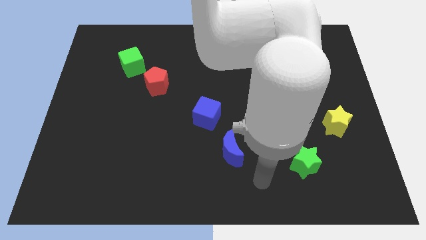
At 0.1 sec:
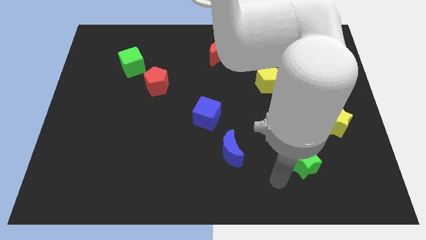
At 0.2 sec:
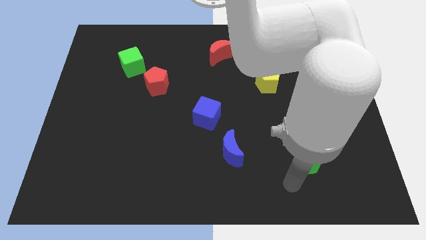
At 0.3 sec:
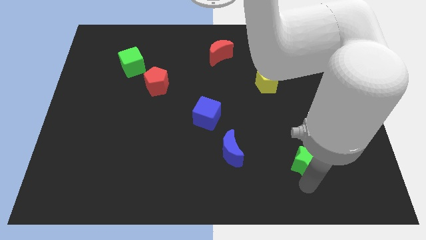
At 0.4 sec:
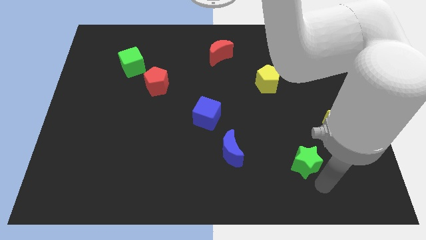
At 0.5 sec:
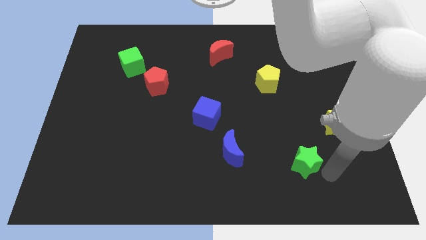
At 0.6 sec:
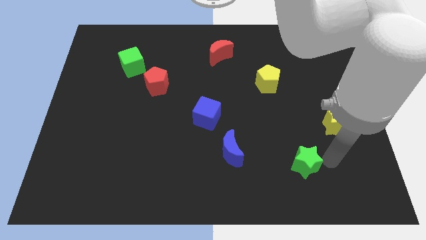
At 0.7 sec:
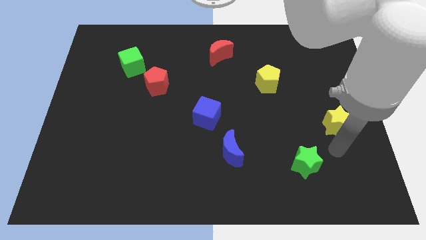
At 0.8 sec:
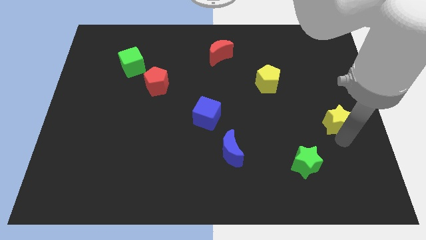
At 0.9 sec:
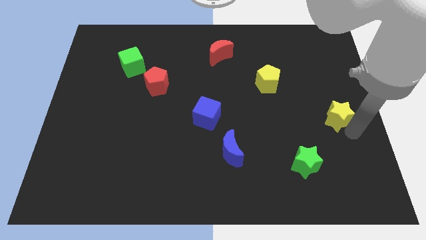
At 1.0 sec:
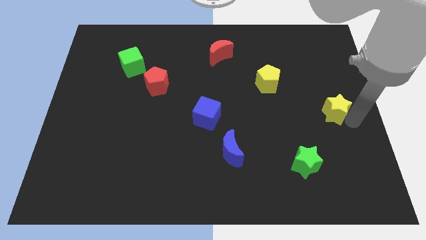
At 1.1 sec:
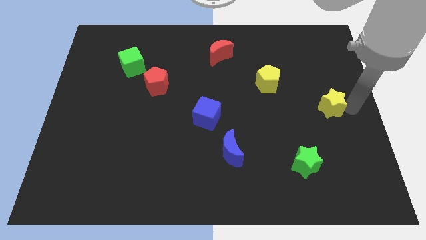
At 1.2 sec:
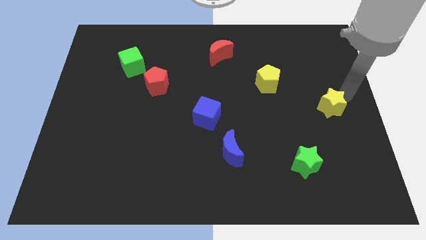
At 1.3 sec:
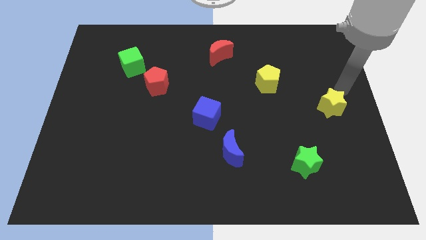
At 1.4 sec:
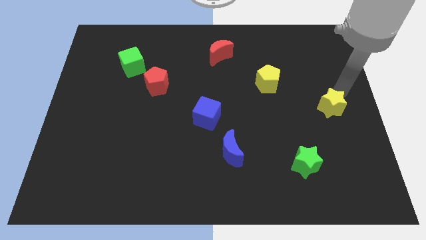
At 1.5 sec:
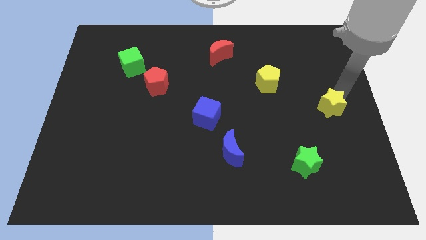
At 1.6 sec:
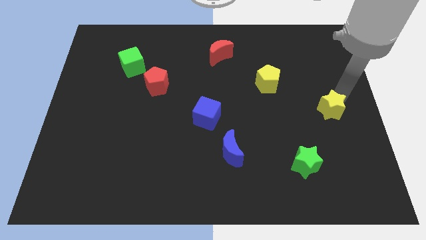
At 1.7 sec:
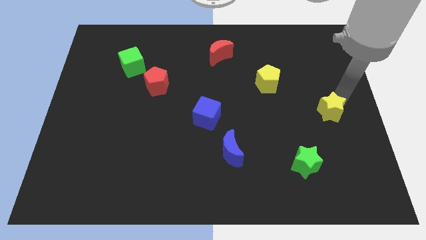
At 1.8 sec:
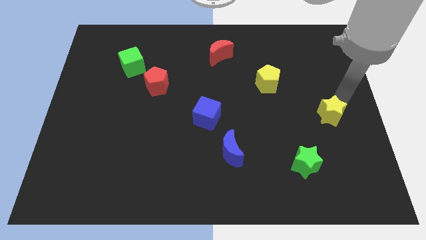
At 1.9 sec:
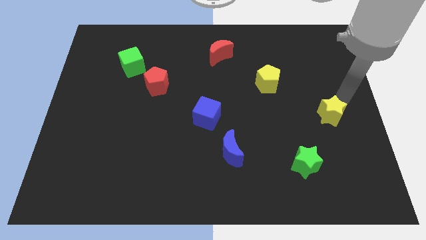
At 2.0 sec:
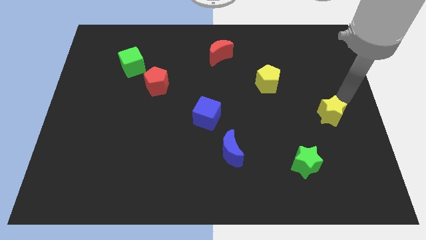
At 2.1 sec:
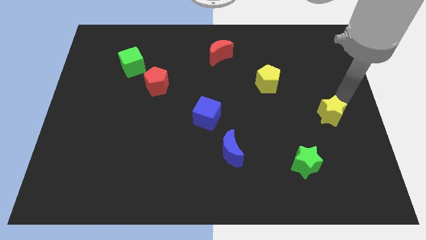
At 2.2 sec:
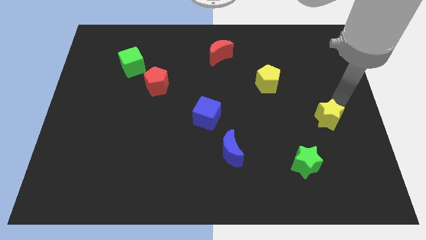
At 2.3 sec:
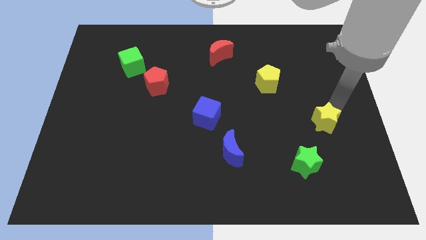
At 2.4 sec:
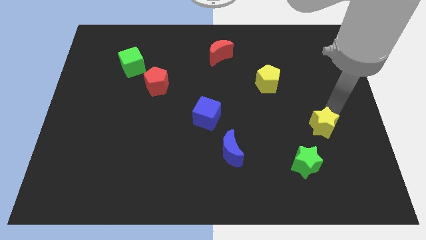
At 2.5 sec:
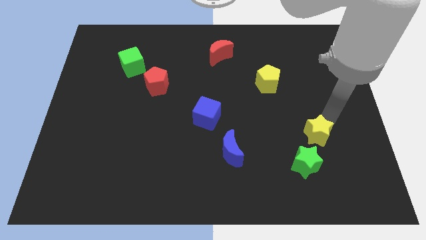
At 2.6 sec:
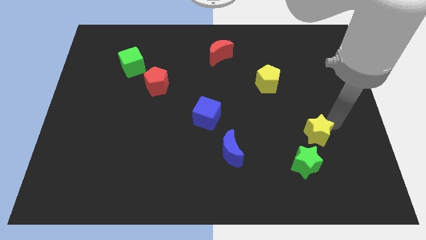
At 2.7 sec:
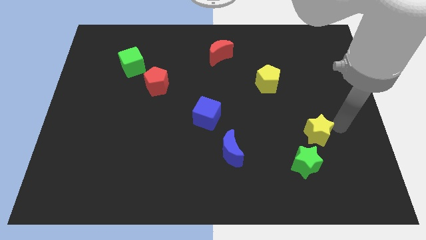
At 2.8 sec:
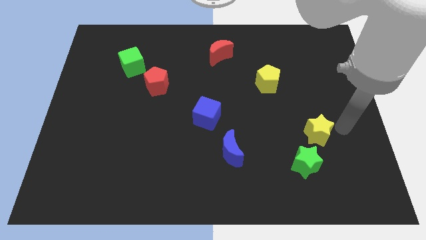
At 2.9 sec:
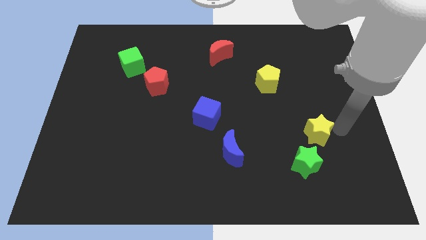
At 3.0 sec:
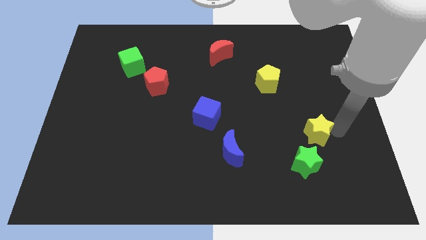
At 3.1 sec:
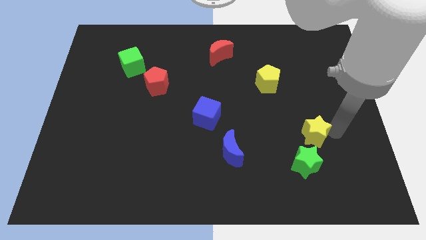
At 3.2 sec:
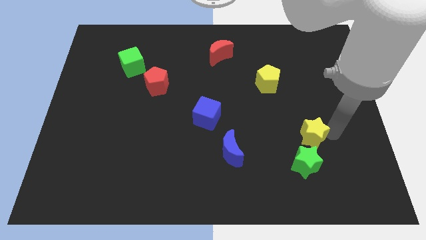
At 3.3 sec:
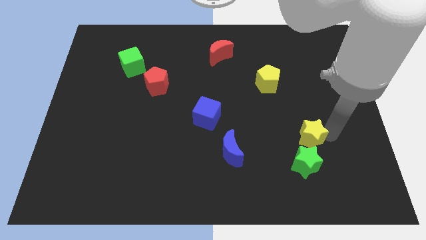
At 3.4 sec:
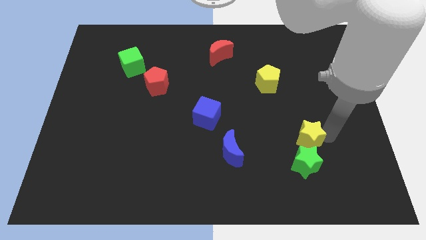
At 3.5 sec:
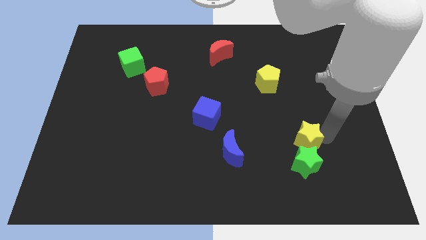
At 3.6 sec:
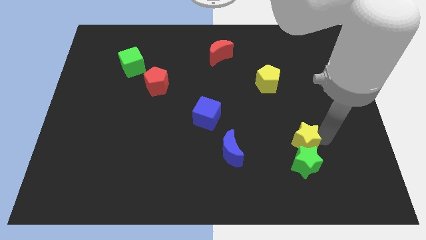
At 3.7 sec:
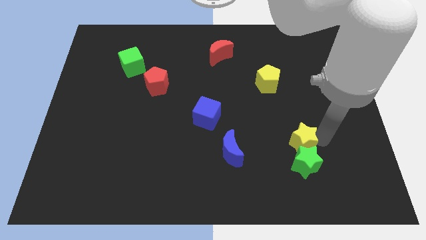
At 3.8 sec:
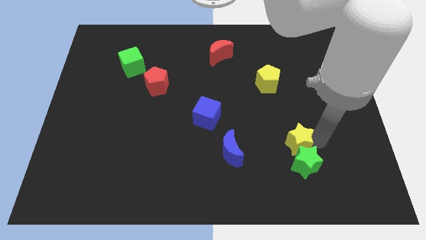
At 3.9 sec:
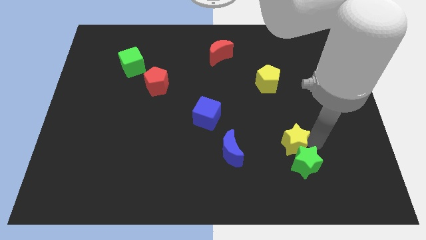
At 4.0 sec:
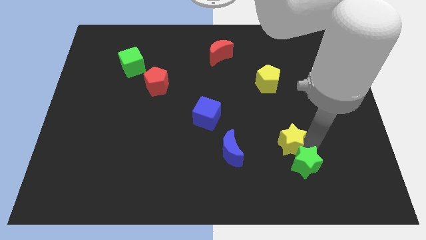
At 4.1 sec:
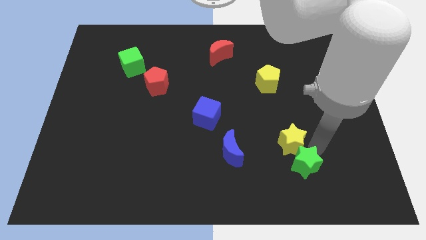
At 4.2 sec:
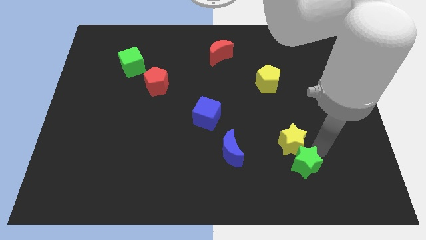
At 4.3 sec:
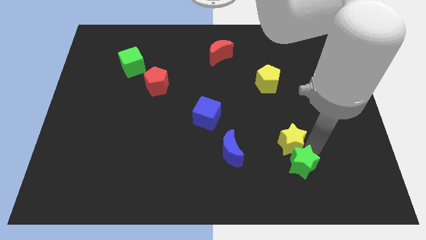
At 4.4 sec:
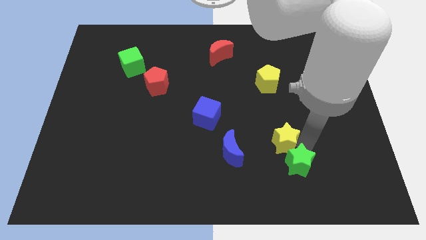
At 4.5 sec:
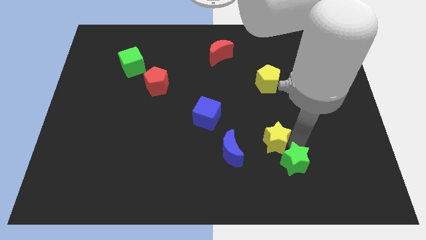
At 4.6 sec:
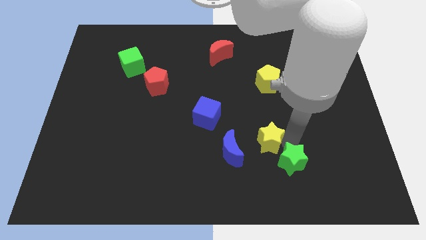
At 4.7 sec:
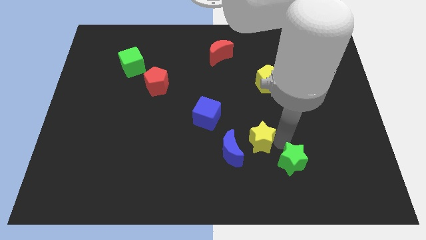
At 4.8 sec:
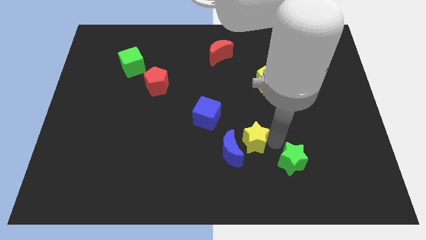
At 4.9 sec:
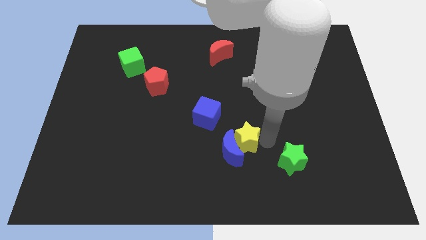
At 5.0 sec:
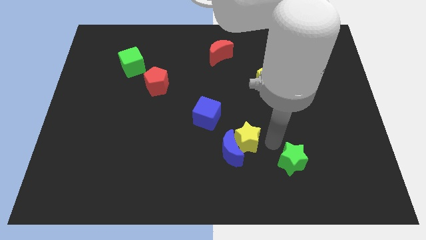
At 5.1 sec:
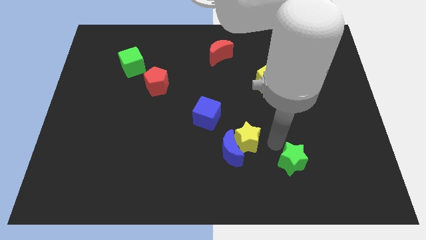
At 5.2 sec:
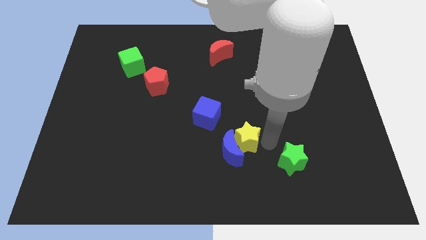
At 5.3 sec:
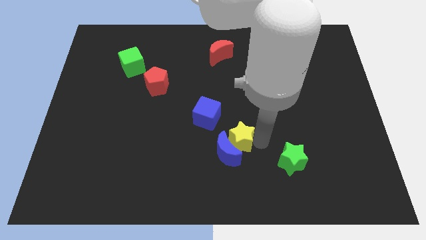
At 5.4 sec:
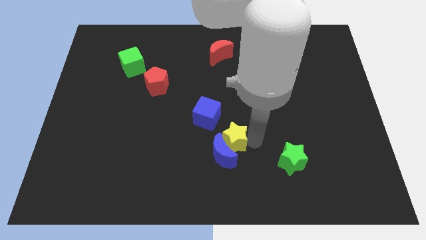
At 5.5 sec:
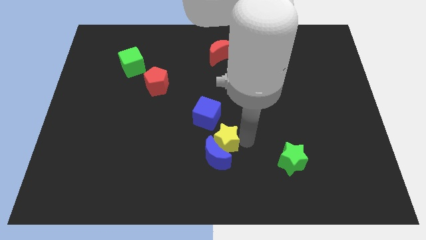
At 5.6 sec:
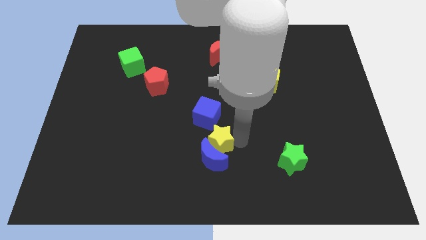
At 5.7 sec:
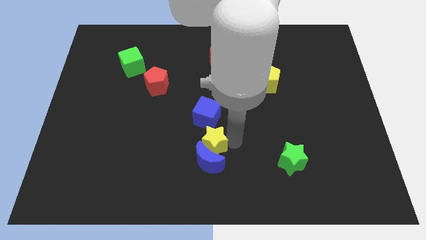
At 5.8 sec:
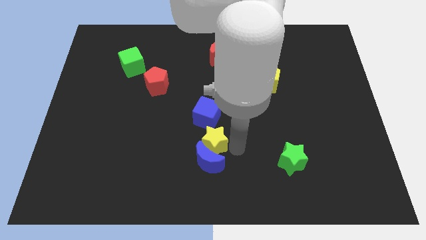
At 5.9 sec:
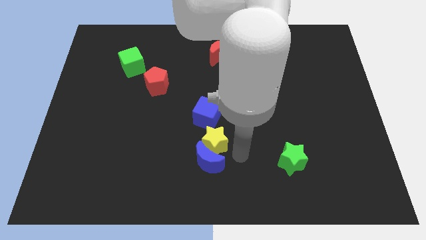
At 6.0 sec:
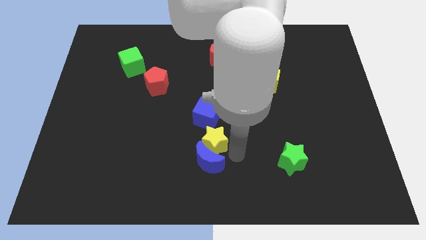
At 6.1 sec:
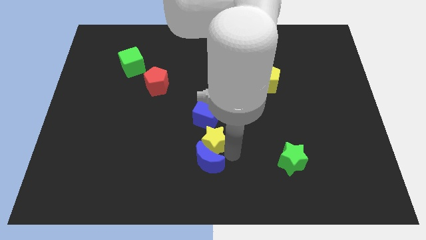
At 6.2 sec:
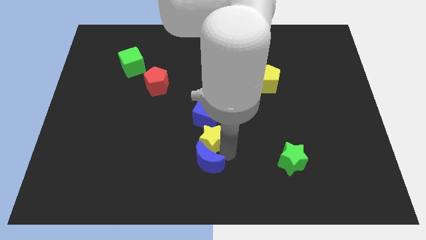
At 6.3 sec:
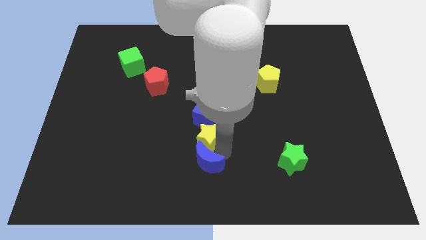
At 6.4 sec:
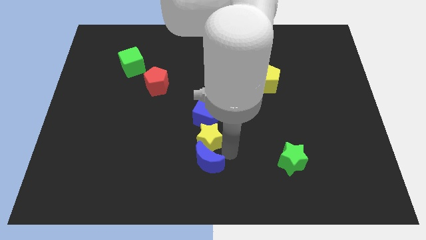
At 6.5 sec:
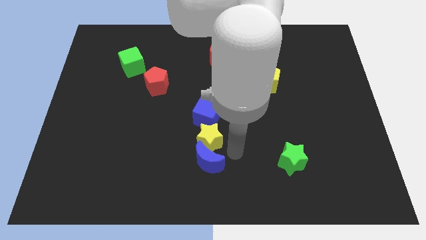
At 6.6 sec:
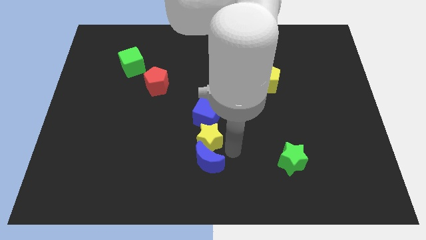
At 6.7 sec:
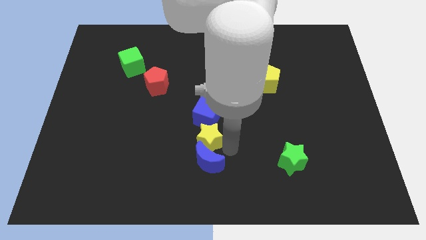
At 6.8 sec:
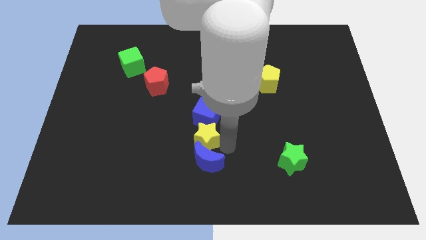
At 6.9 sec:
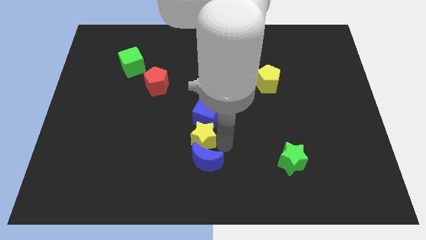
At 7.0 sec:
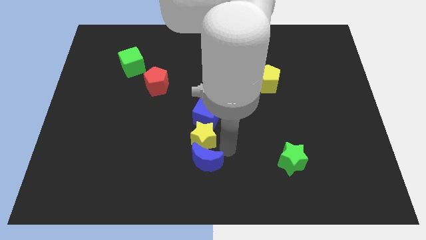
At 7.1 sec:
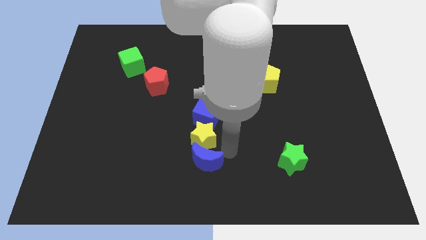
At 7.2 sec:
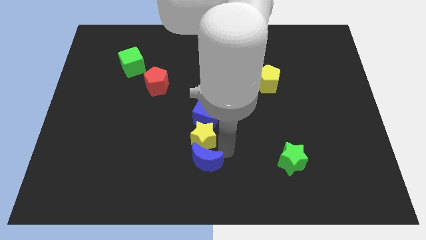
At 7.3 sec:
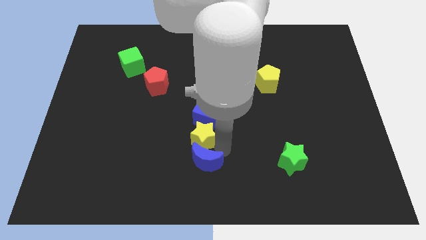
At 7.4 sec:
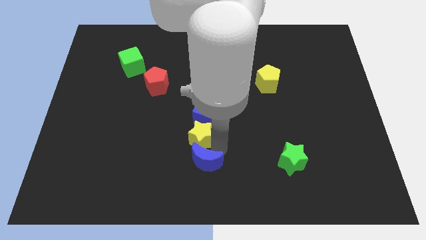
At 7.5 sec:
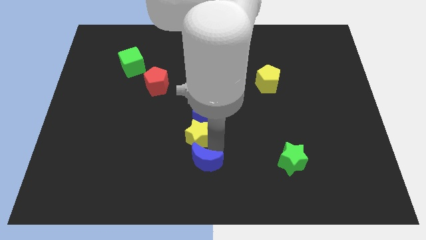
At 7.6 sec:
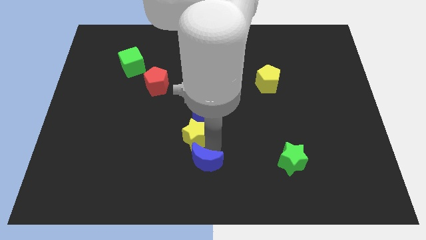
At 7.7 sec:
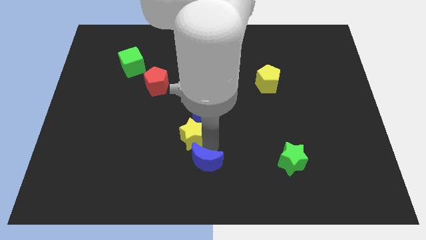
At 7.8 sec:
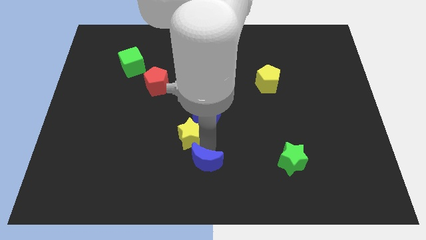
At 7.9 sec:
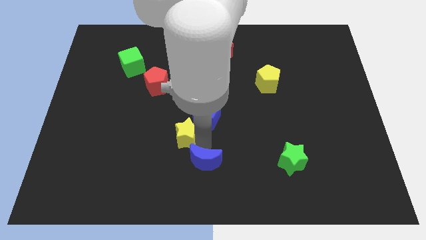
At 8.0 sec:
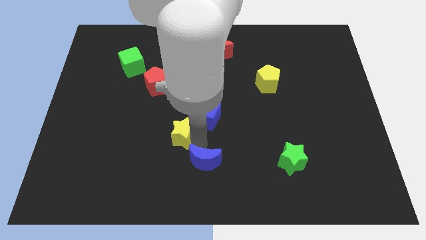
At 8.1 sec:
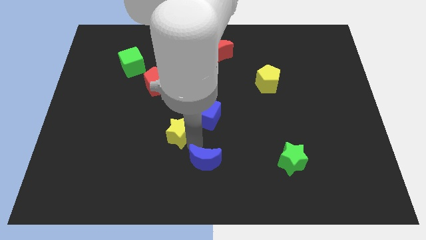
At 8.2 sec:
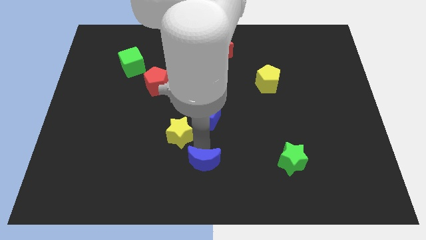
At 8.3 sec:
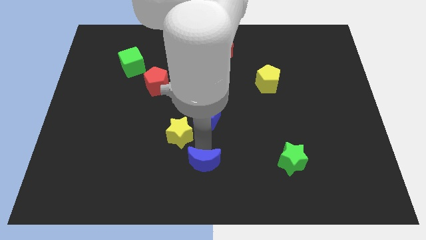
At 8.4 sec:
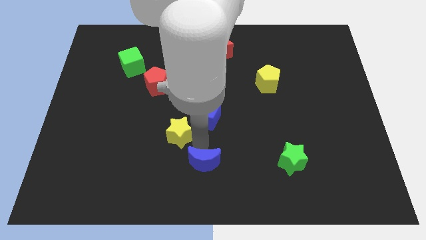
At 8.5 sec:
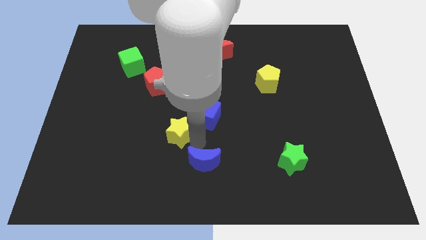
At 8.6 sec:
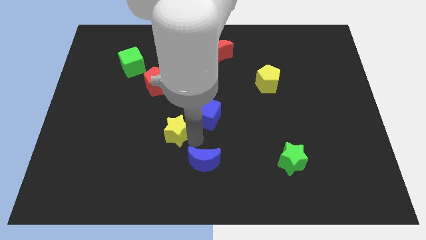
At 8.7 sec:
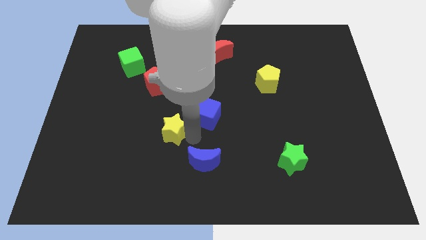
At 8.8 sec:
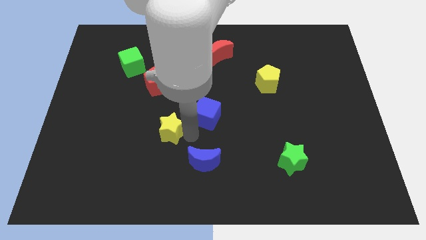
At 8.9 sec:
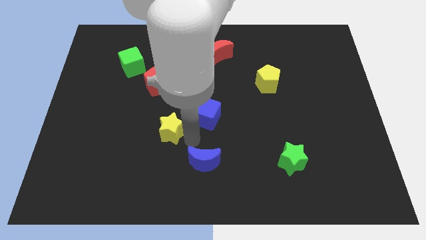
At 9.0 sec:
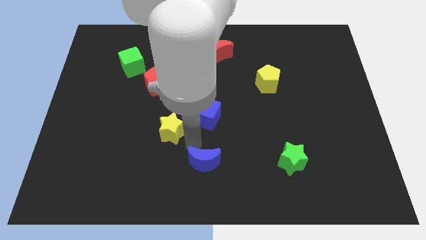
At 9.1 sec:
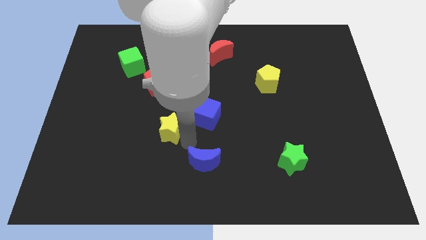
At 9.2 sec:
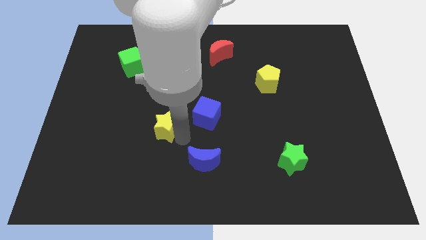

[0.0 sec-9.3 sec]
push the yellow star to the bottom of the red pentagon
